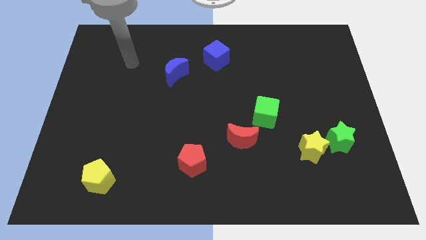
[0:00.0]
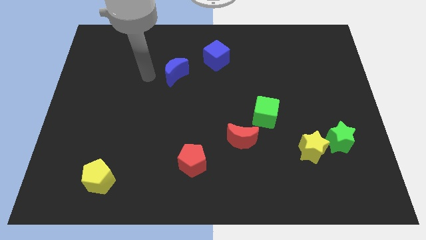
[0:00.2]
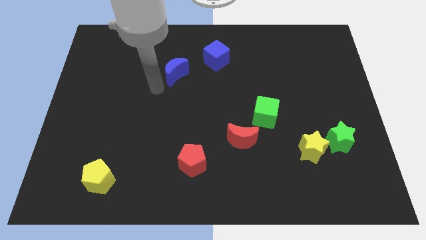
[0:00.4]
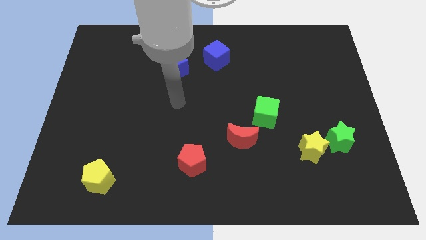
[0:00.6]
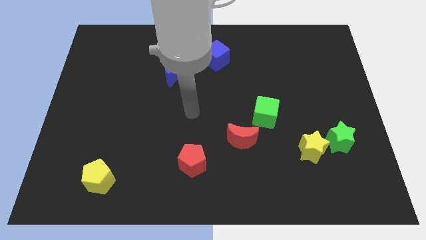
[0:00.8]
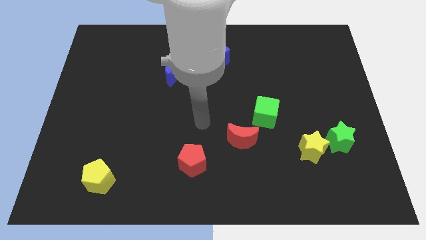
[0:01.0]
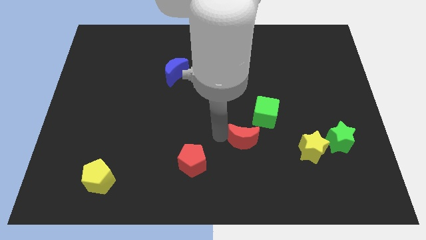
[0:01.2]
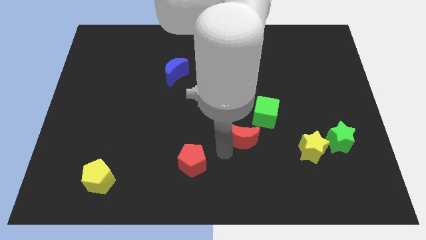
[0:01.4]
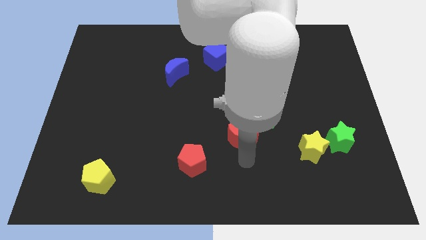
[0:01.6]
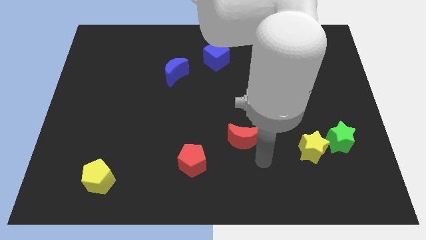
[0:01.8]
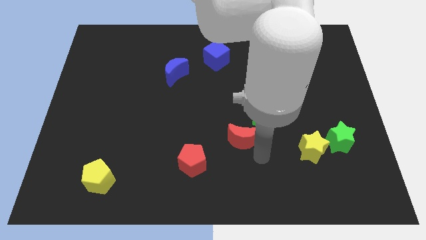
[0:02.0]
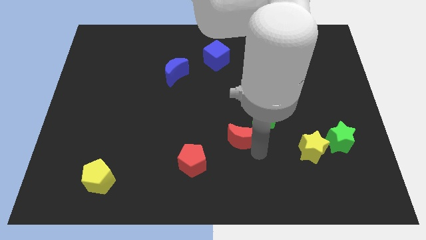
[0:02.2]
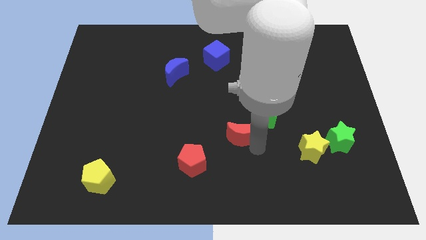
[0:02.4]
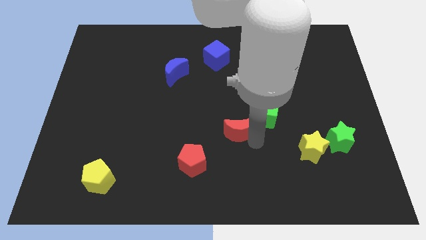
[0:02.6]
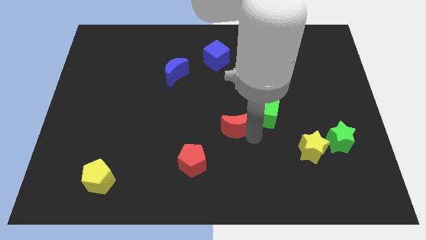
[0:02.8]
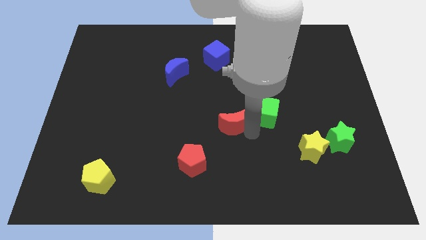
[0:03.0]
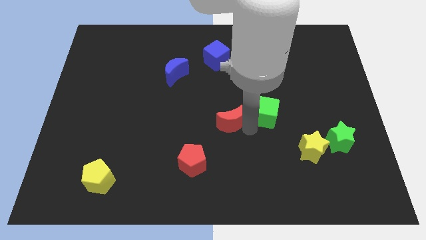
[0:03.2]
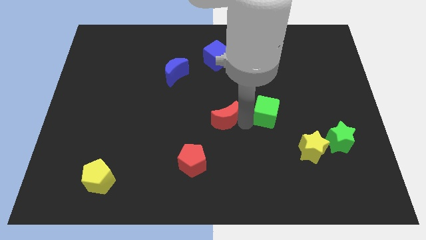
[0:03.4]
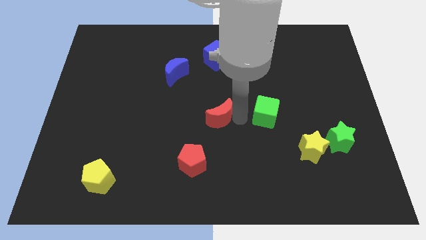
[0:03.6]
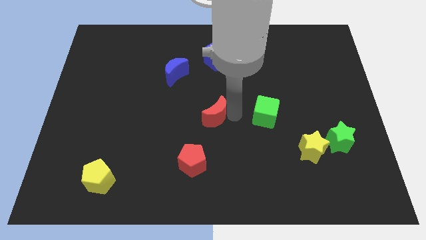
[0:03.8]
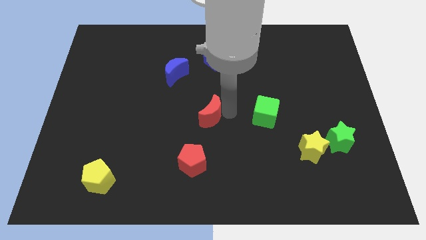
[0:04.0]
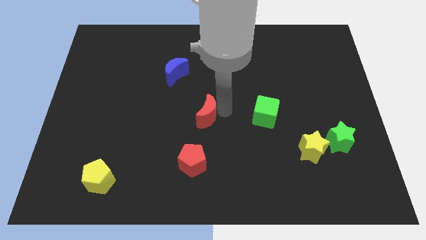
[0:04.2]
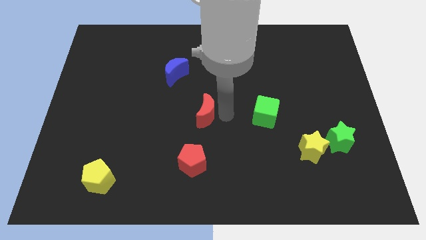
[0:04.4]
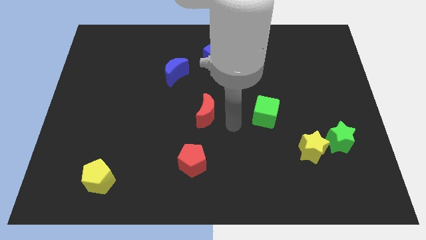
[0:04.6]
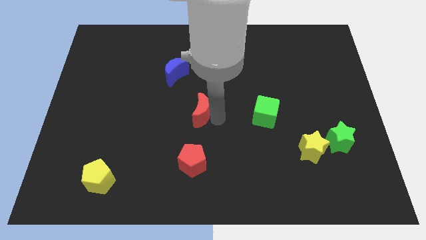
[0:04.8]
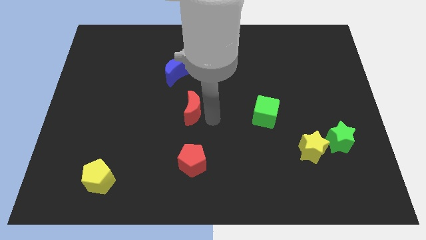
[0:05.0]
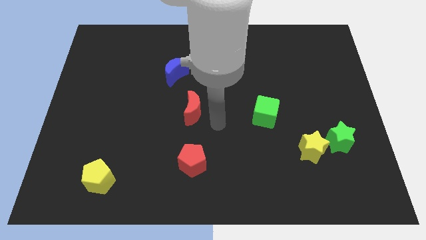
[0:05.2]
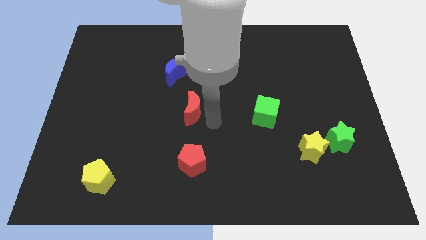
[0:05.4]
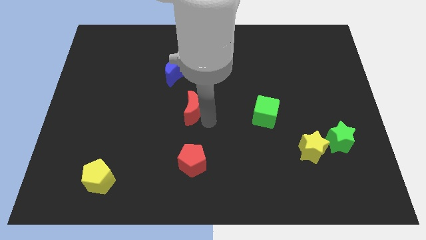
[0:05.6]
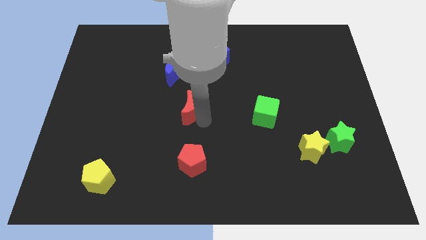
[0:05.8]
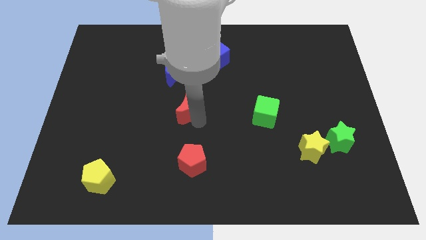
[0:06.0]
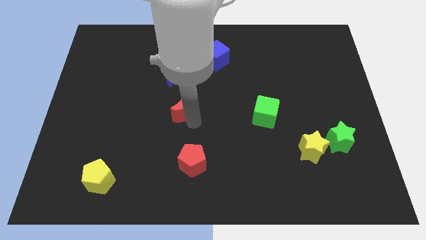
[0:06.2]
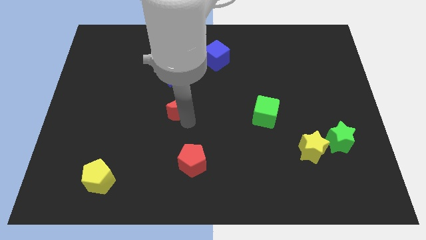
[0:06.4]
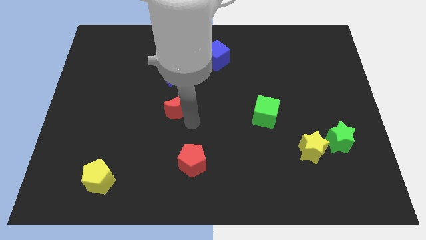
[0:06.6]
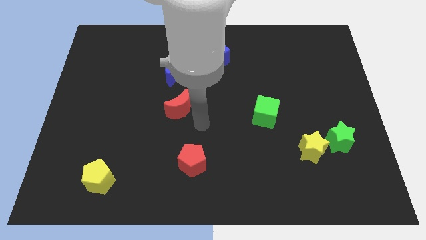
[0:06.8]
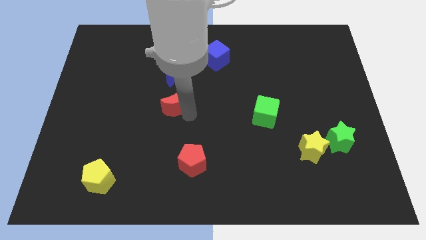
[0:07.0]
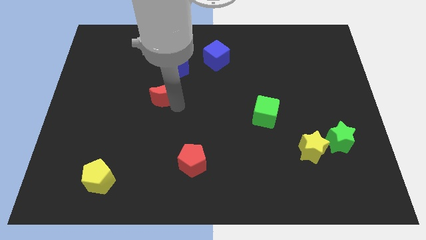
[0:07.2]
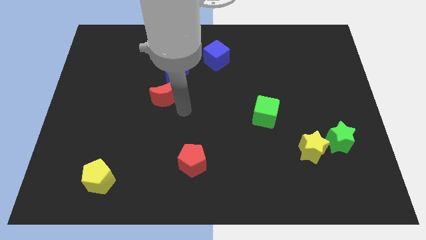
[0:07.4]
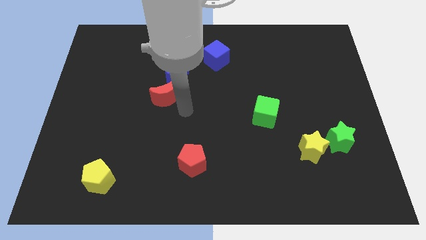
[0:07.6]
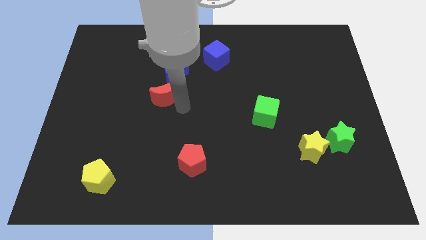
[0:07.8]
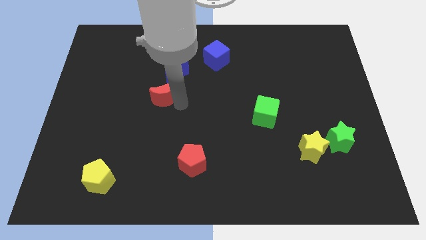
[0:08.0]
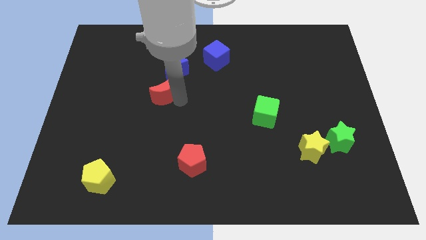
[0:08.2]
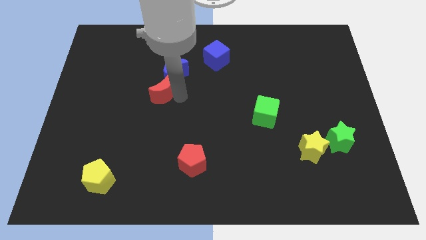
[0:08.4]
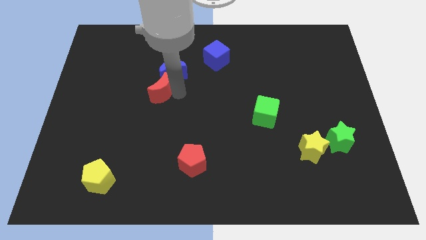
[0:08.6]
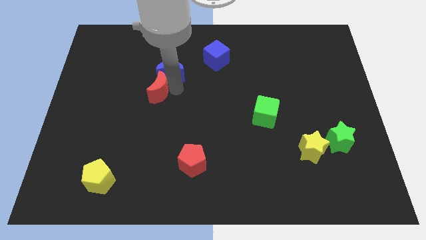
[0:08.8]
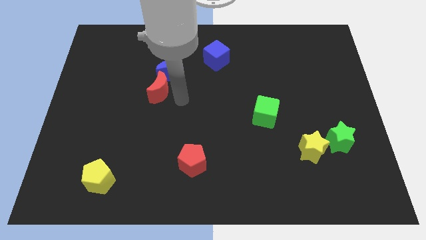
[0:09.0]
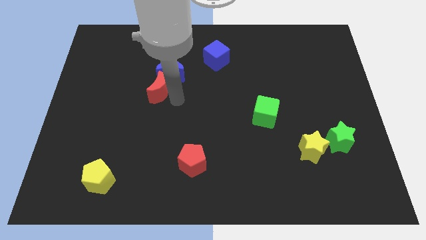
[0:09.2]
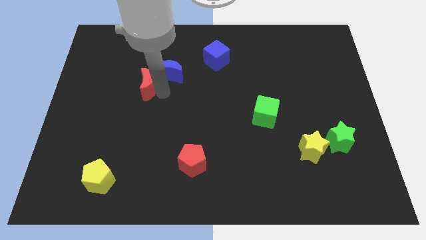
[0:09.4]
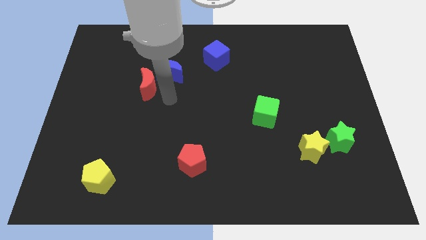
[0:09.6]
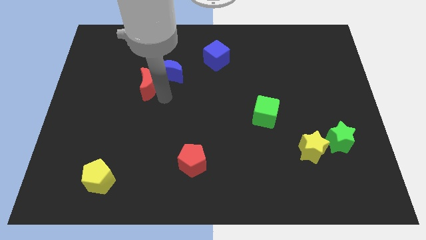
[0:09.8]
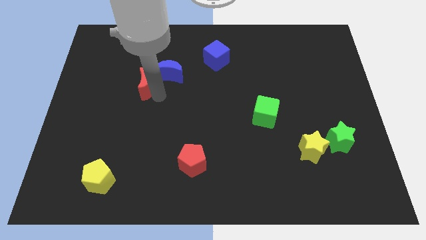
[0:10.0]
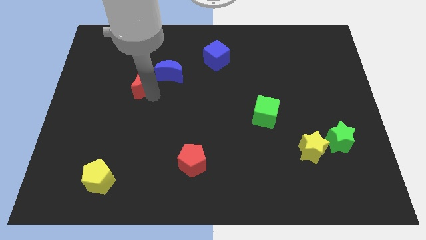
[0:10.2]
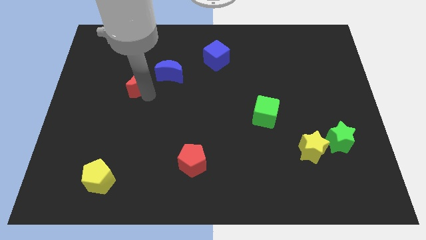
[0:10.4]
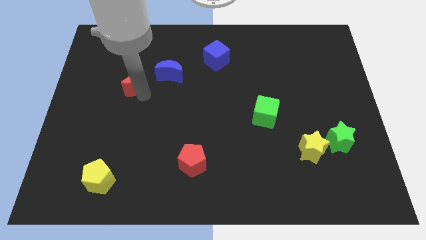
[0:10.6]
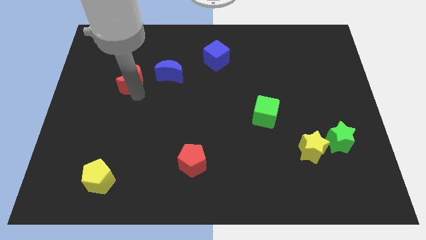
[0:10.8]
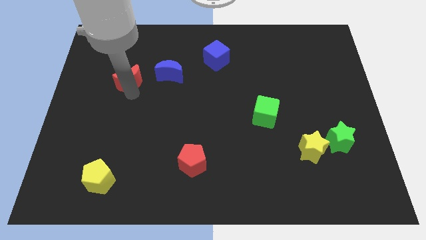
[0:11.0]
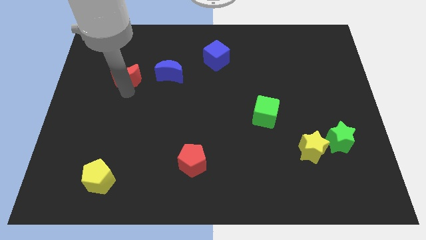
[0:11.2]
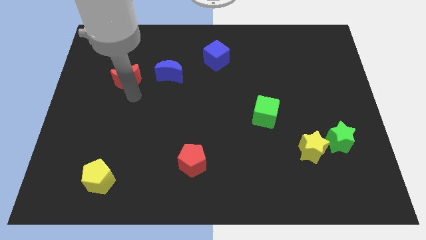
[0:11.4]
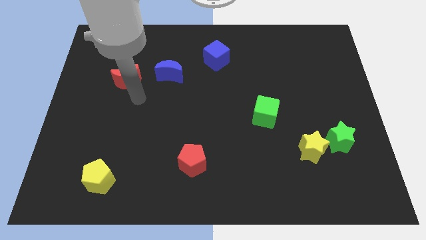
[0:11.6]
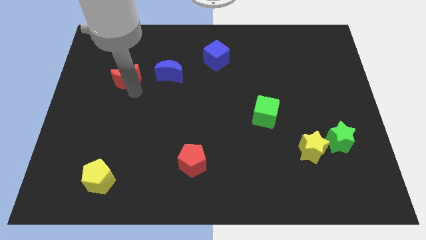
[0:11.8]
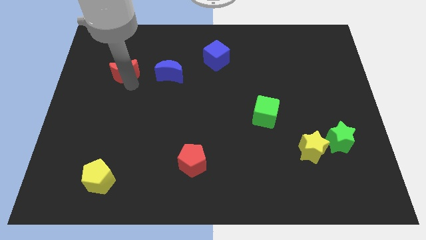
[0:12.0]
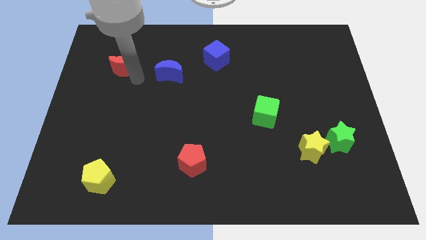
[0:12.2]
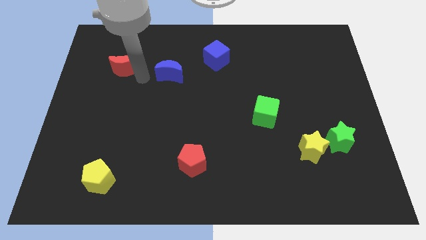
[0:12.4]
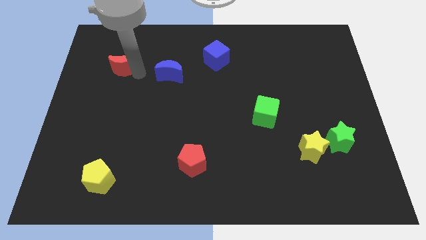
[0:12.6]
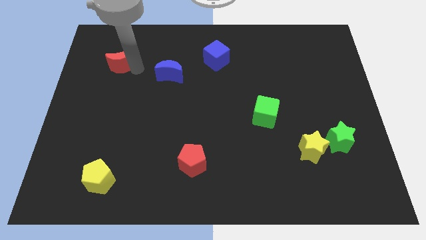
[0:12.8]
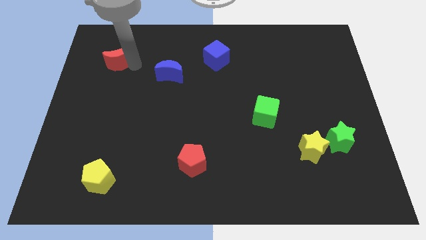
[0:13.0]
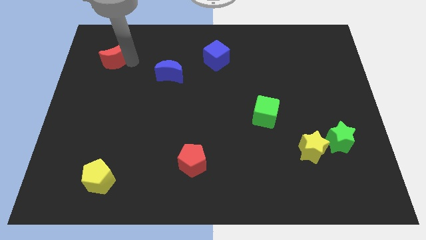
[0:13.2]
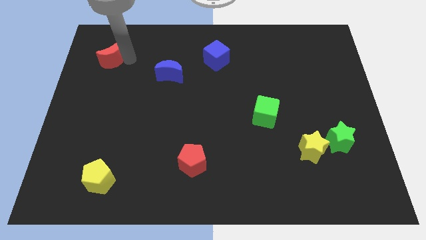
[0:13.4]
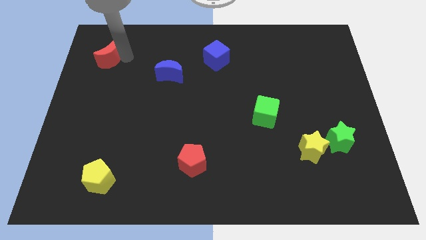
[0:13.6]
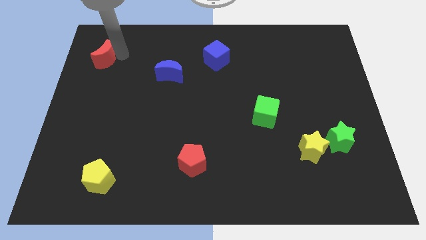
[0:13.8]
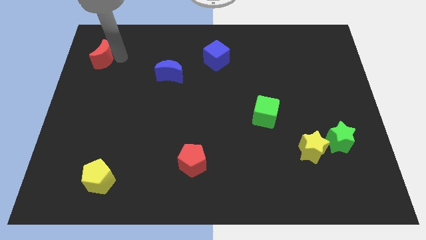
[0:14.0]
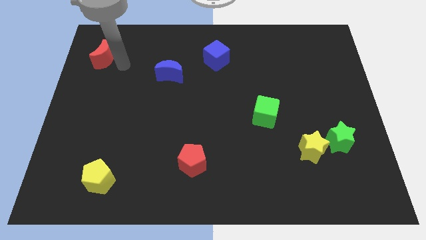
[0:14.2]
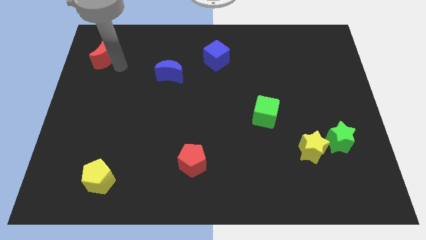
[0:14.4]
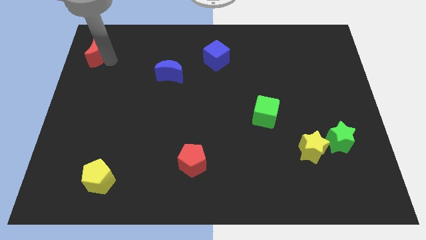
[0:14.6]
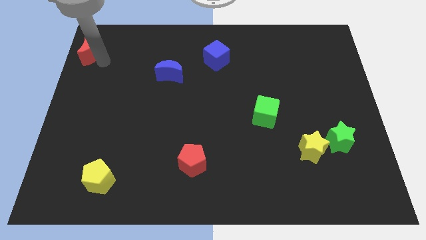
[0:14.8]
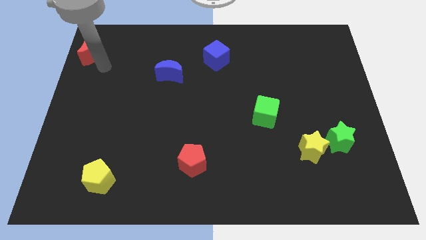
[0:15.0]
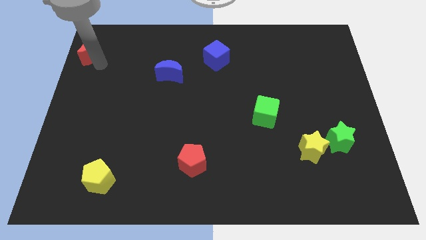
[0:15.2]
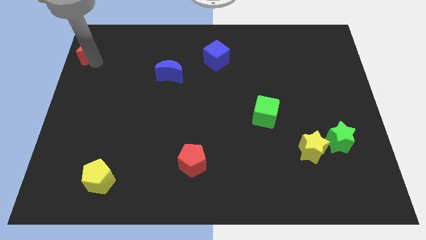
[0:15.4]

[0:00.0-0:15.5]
push the red moon to the upper left corner
